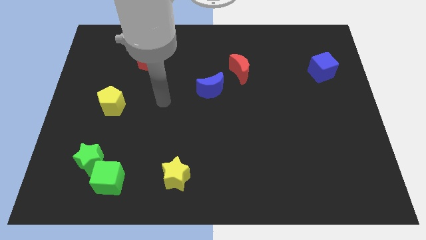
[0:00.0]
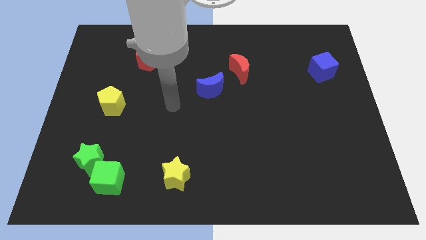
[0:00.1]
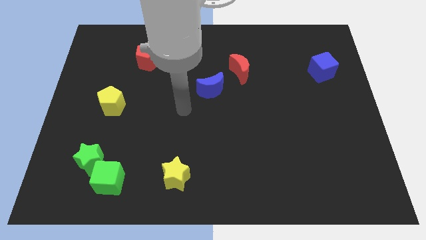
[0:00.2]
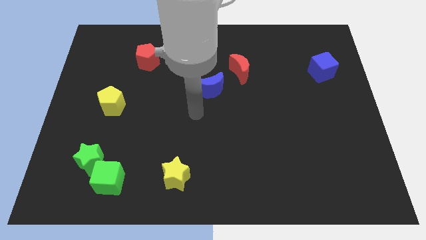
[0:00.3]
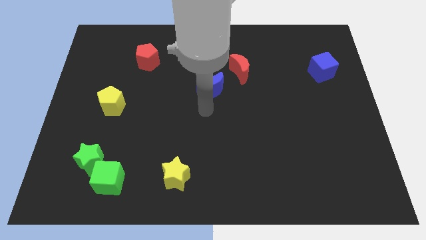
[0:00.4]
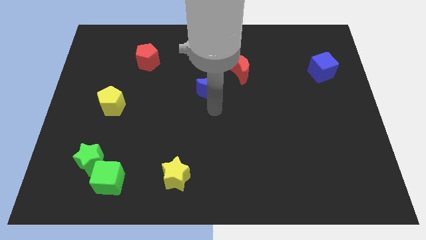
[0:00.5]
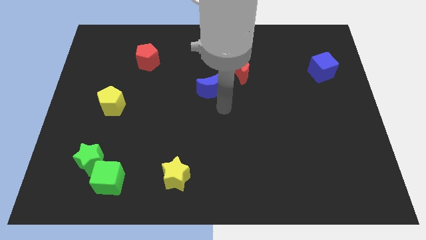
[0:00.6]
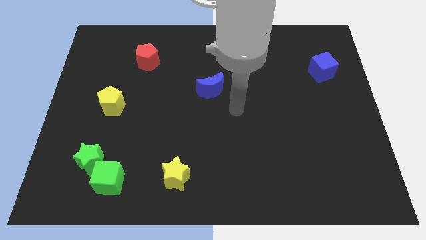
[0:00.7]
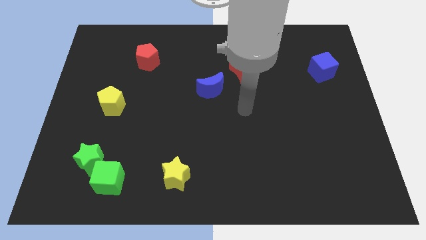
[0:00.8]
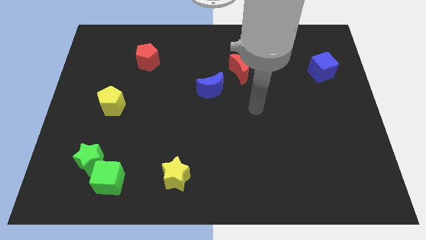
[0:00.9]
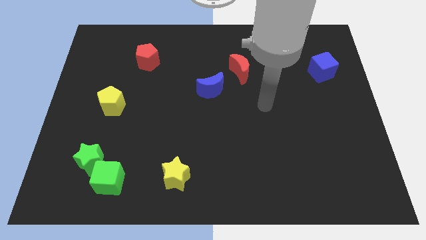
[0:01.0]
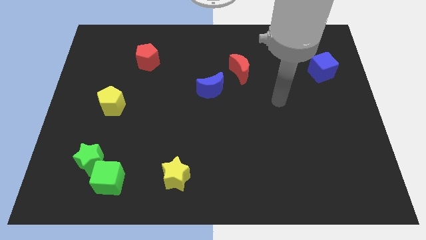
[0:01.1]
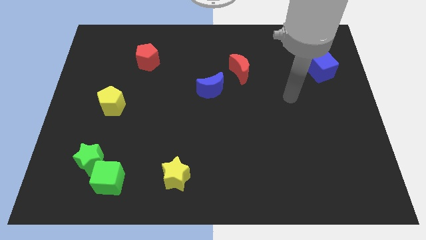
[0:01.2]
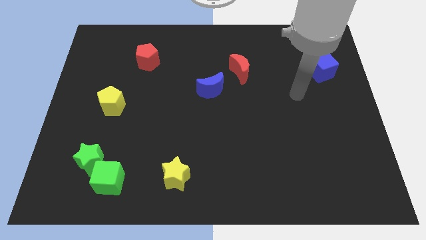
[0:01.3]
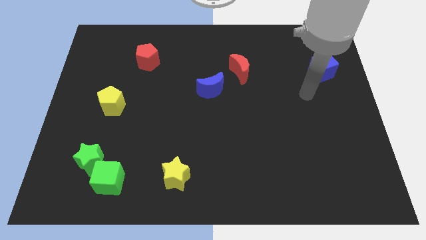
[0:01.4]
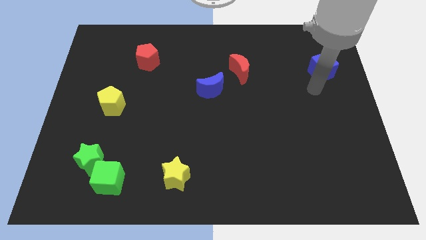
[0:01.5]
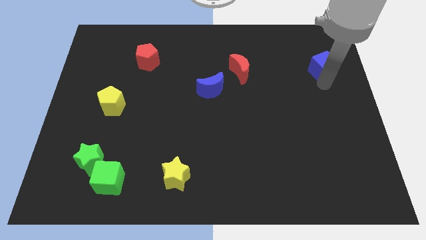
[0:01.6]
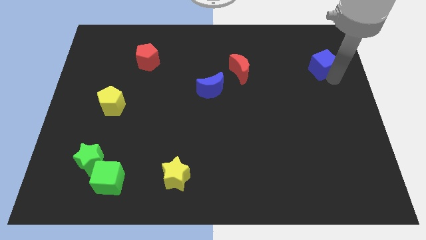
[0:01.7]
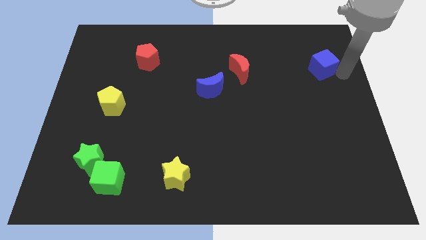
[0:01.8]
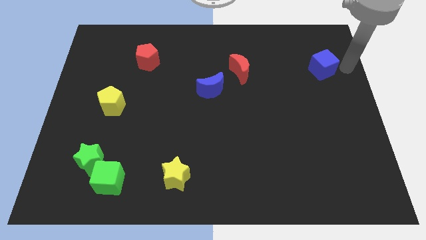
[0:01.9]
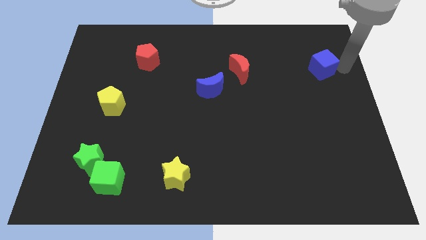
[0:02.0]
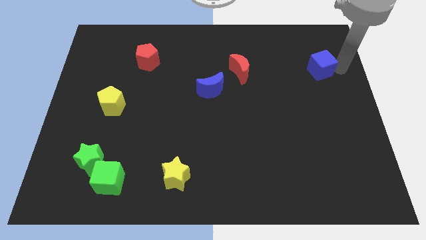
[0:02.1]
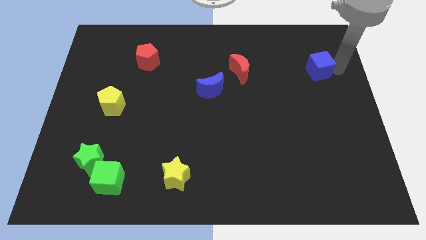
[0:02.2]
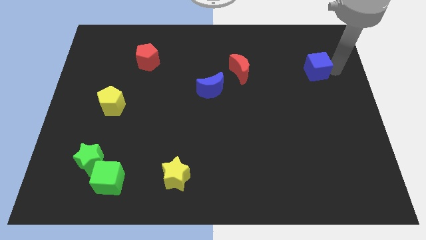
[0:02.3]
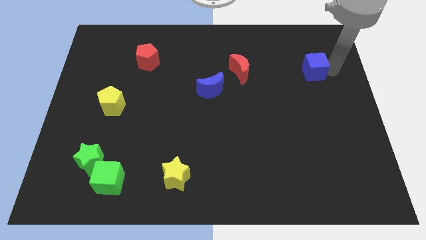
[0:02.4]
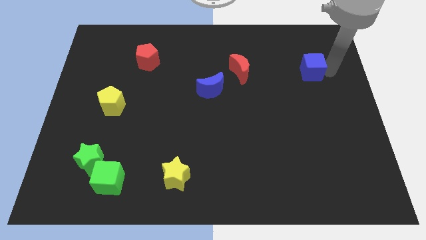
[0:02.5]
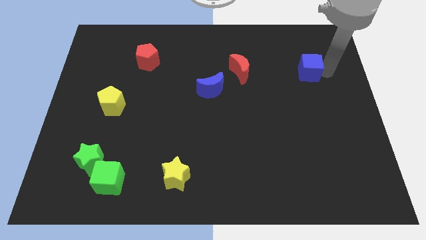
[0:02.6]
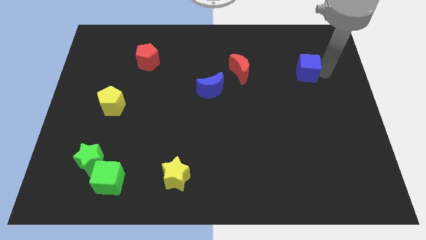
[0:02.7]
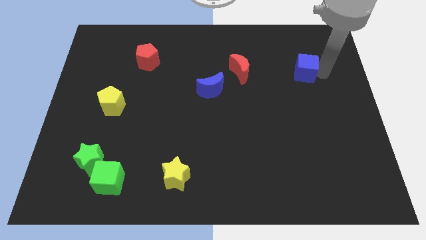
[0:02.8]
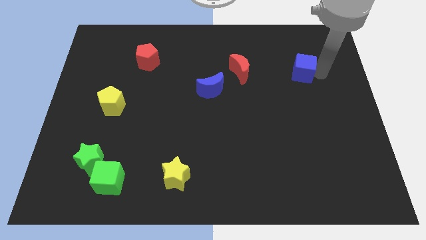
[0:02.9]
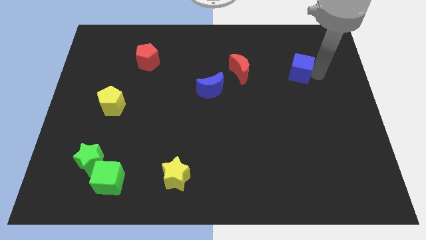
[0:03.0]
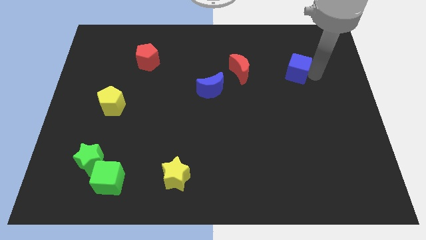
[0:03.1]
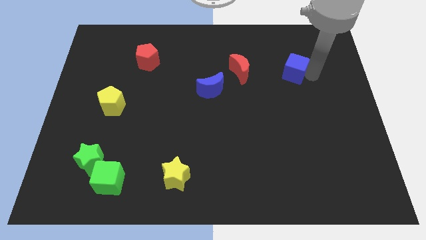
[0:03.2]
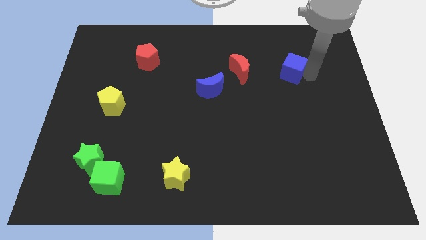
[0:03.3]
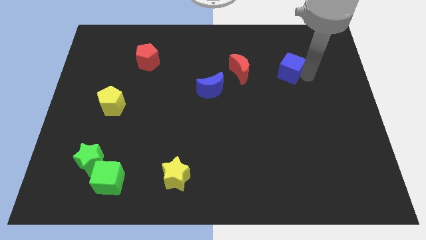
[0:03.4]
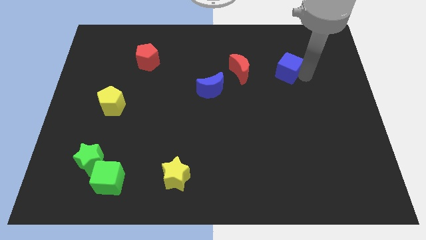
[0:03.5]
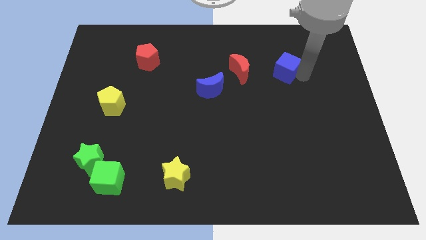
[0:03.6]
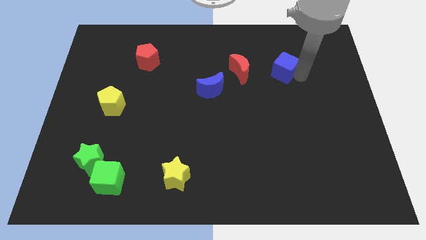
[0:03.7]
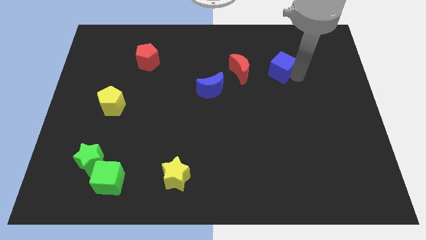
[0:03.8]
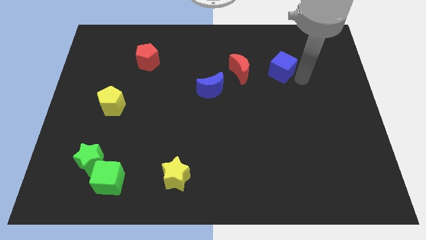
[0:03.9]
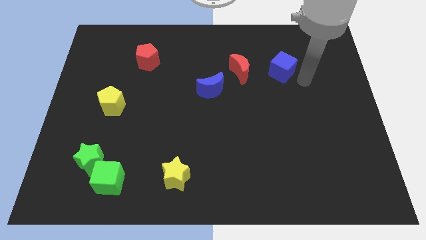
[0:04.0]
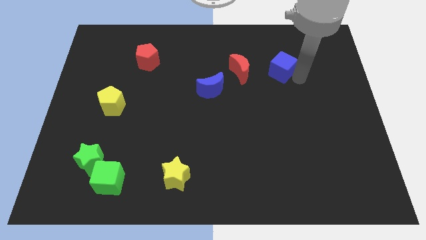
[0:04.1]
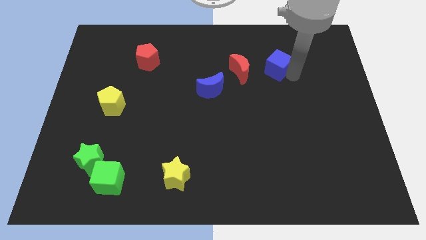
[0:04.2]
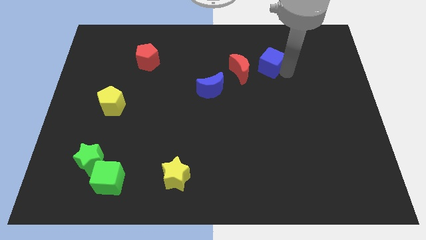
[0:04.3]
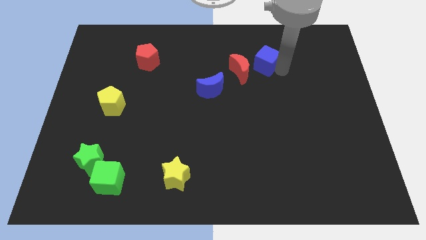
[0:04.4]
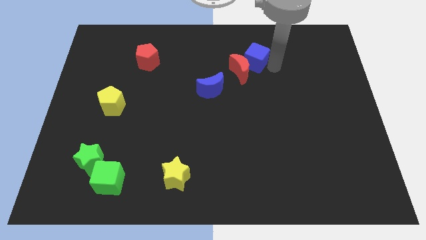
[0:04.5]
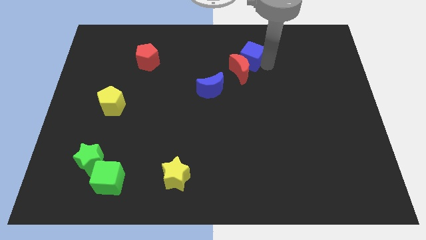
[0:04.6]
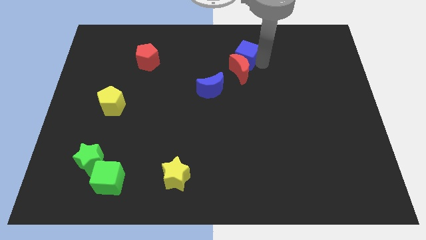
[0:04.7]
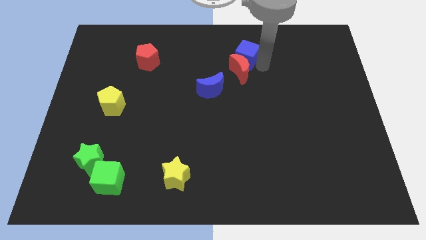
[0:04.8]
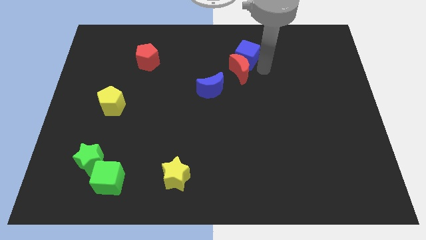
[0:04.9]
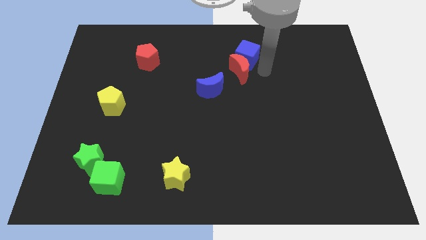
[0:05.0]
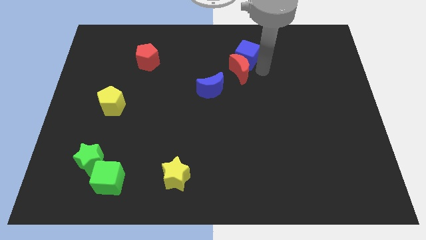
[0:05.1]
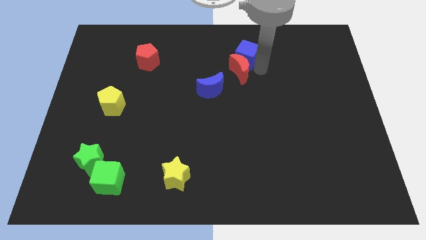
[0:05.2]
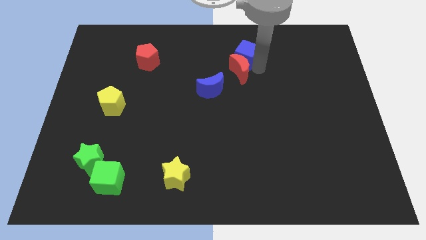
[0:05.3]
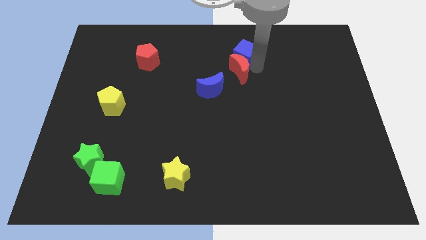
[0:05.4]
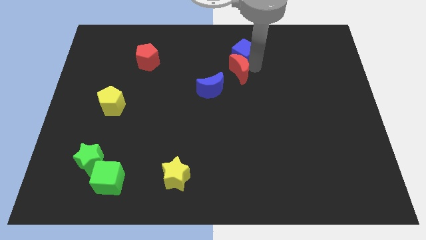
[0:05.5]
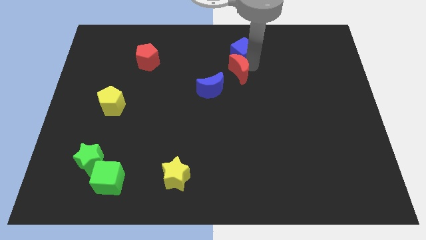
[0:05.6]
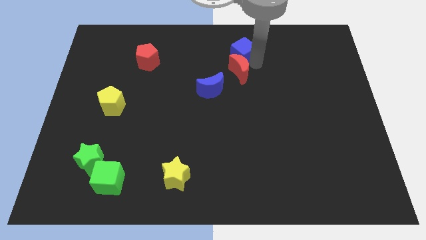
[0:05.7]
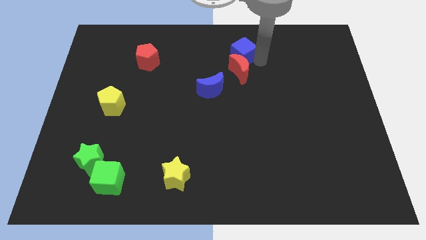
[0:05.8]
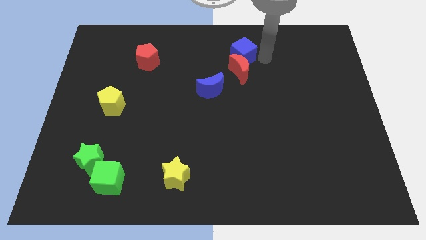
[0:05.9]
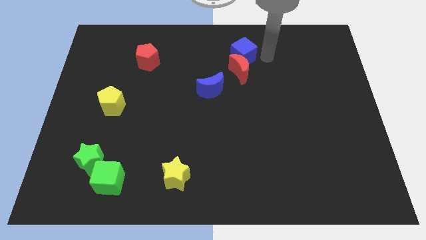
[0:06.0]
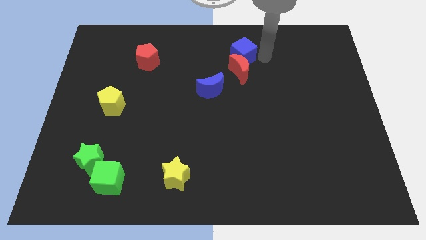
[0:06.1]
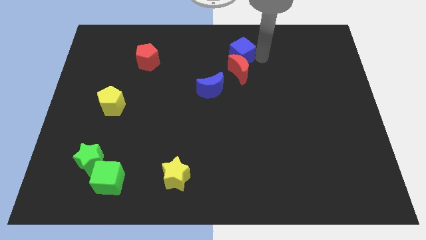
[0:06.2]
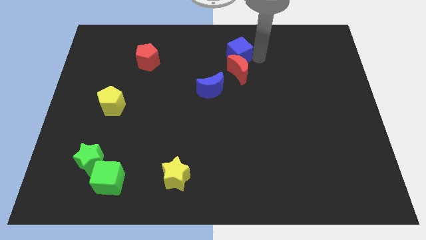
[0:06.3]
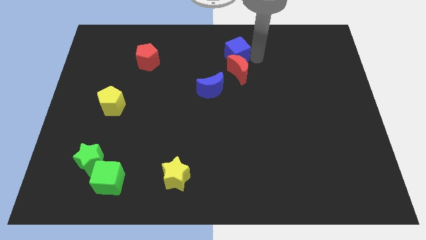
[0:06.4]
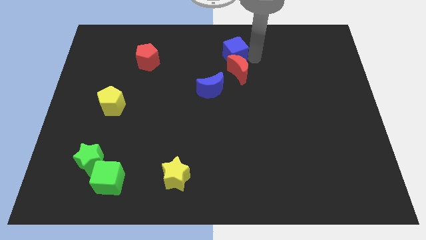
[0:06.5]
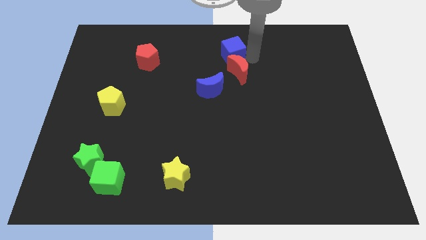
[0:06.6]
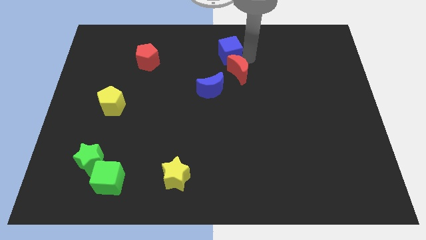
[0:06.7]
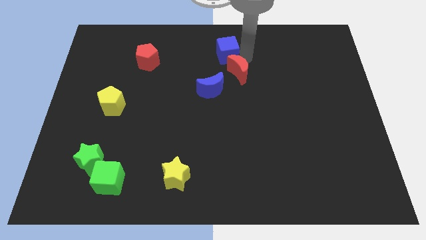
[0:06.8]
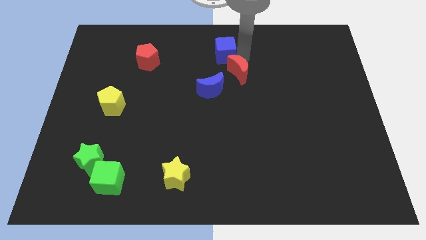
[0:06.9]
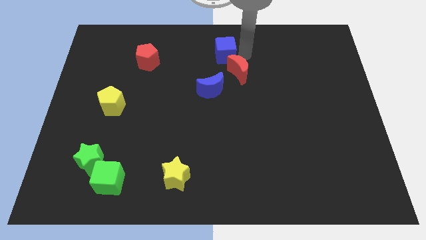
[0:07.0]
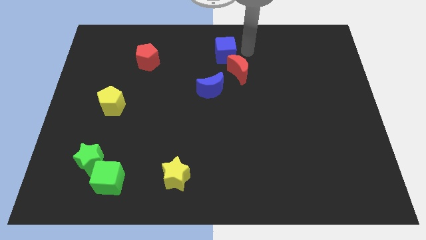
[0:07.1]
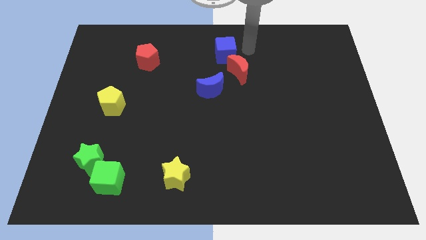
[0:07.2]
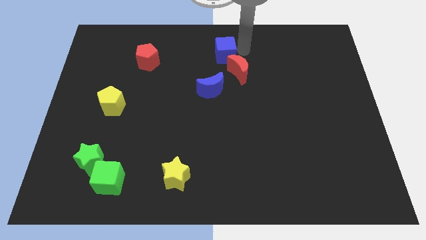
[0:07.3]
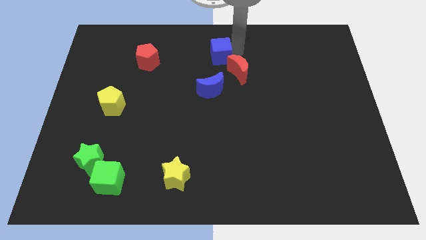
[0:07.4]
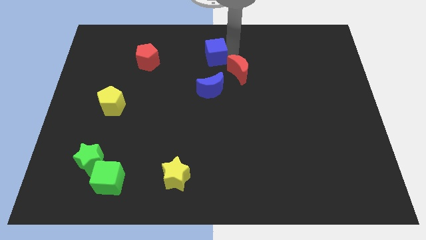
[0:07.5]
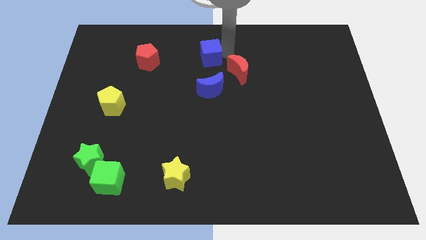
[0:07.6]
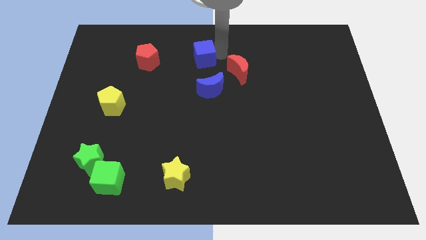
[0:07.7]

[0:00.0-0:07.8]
slide the blue cube to the right of the red pentagon
